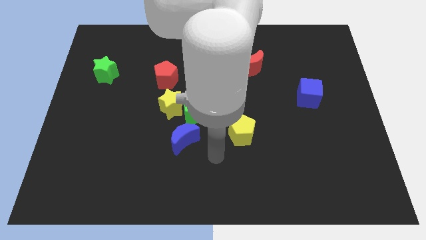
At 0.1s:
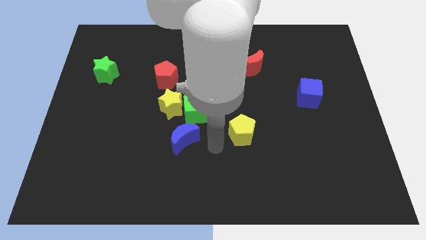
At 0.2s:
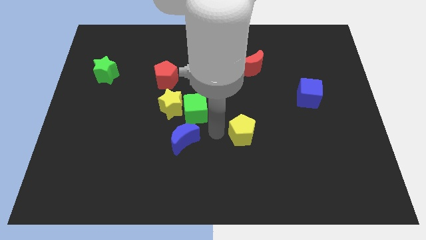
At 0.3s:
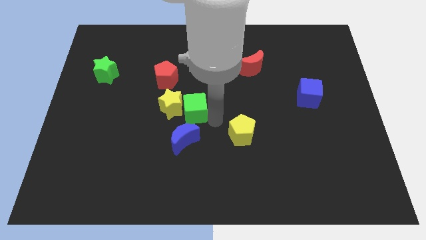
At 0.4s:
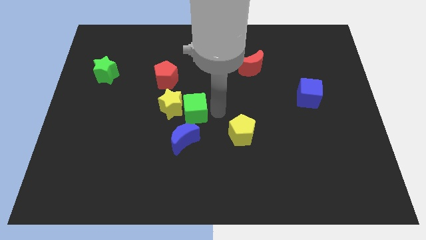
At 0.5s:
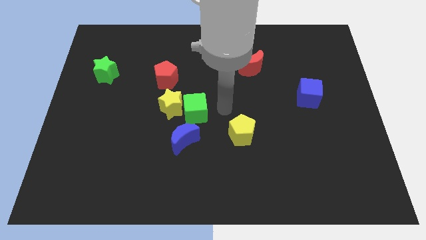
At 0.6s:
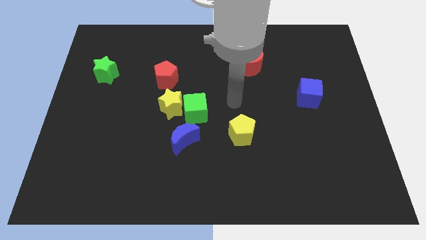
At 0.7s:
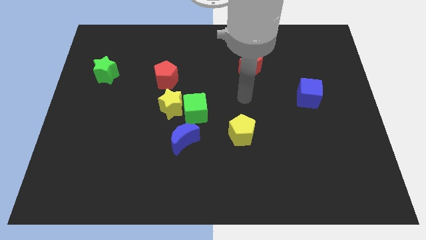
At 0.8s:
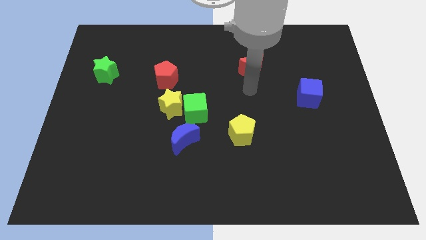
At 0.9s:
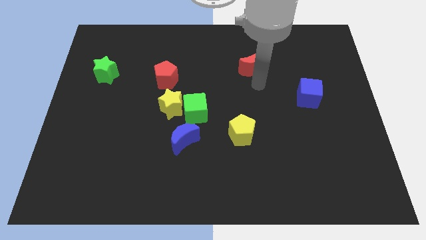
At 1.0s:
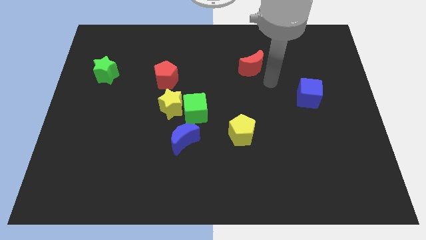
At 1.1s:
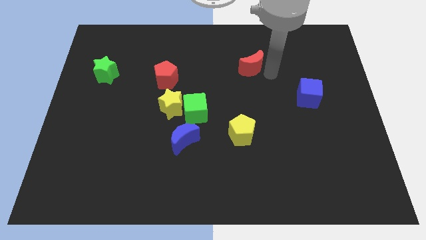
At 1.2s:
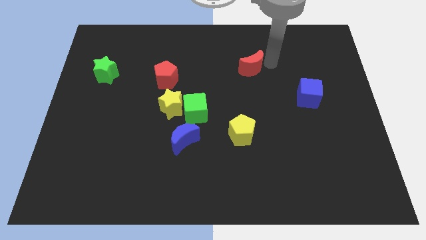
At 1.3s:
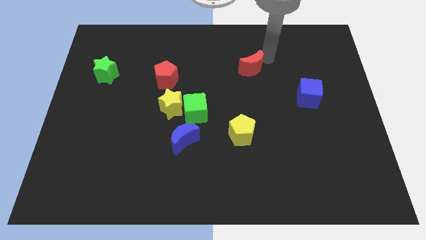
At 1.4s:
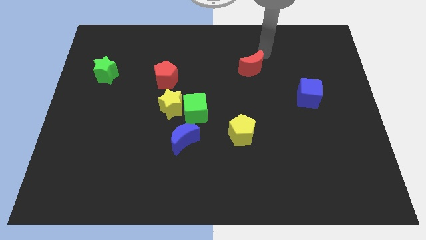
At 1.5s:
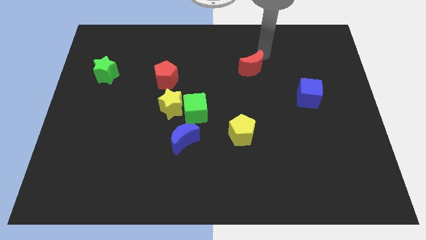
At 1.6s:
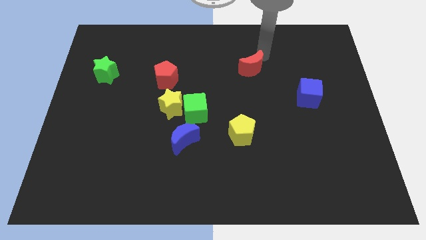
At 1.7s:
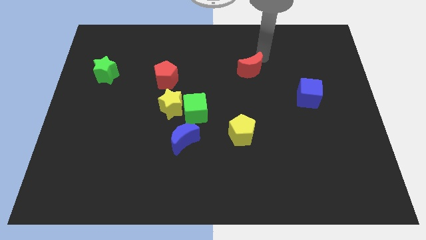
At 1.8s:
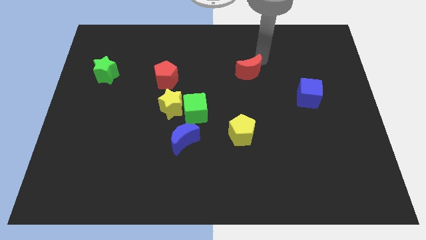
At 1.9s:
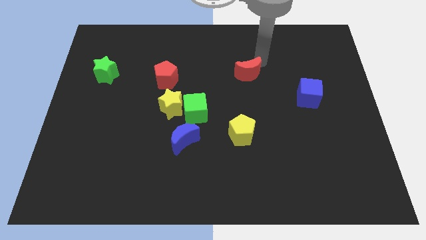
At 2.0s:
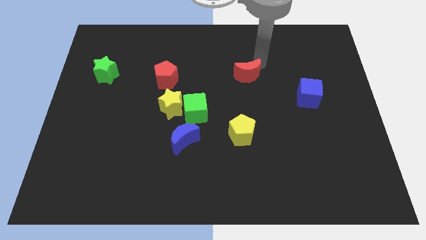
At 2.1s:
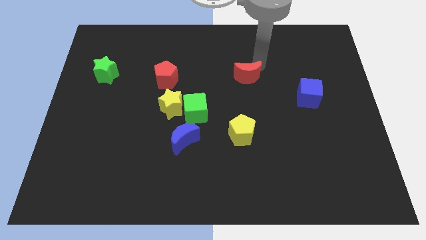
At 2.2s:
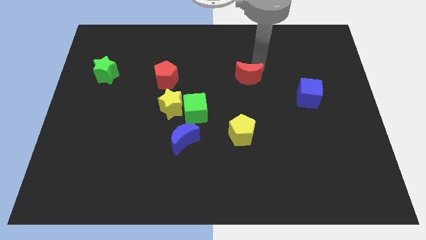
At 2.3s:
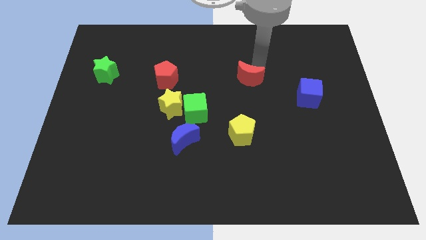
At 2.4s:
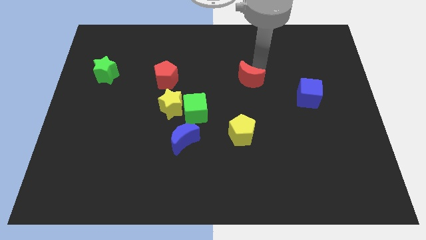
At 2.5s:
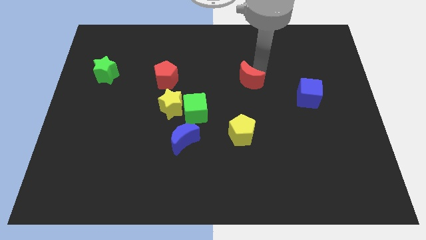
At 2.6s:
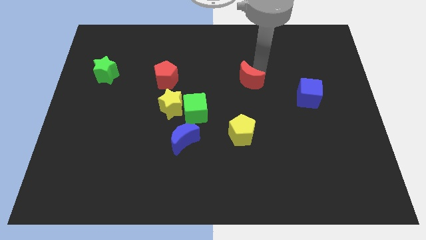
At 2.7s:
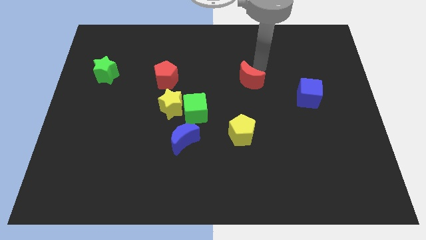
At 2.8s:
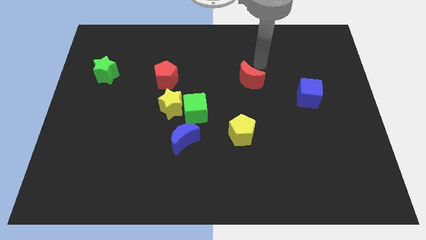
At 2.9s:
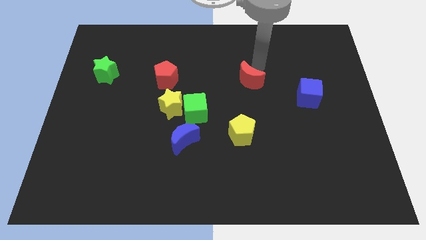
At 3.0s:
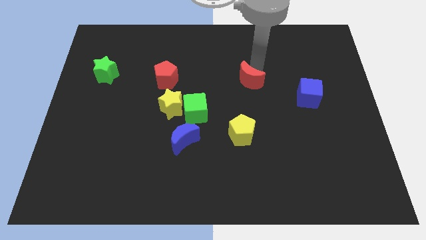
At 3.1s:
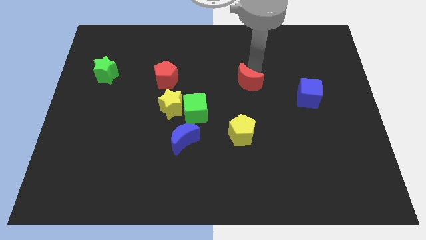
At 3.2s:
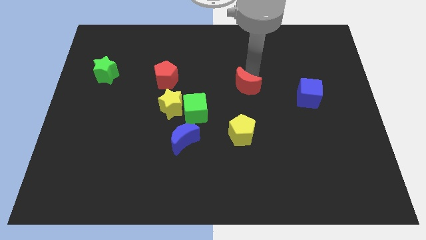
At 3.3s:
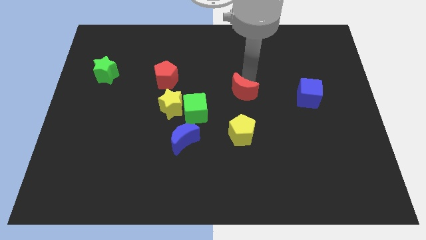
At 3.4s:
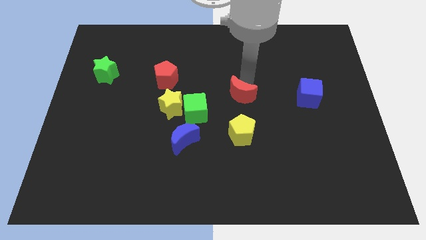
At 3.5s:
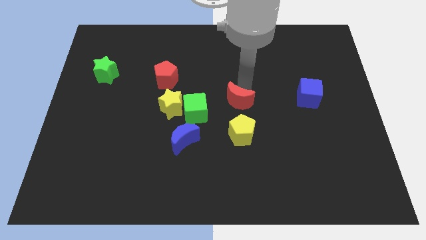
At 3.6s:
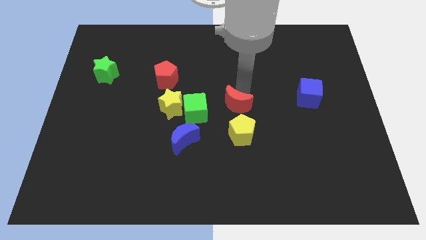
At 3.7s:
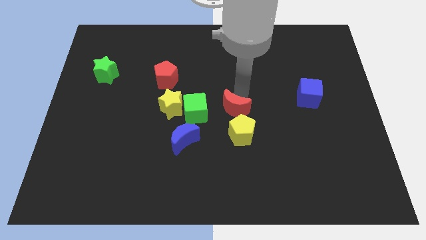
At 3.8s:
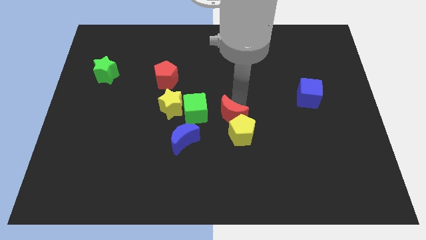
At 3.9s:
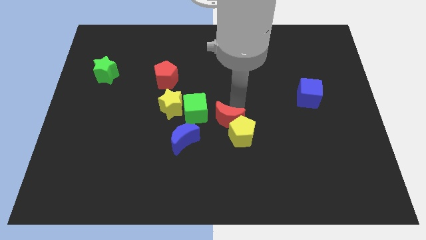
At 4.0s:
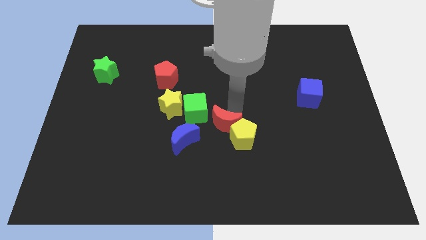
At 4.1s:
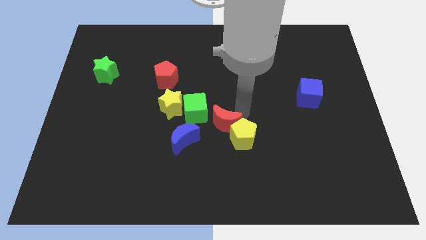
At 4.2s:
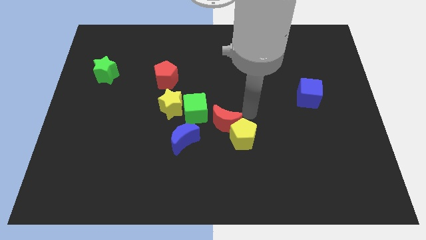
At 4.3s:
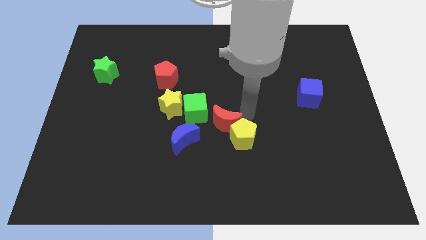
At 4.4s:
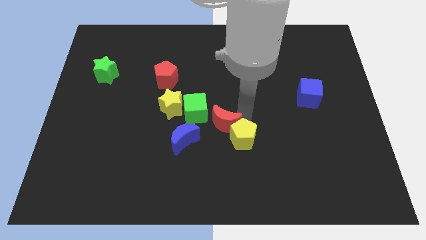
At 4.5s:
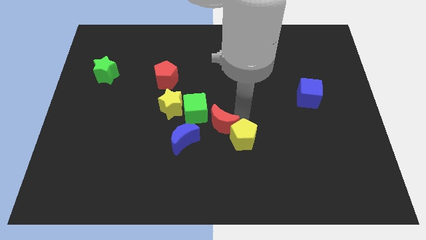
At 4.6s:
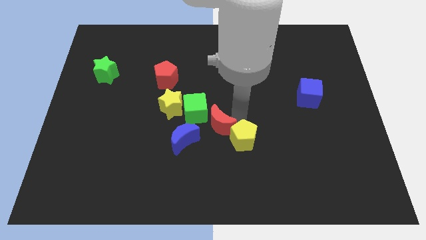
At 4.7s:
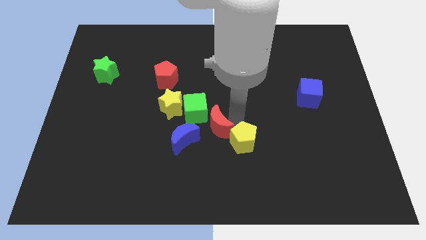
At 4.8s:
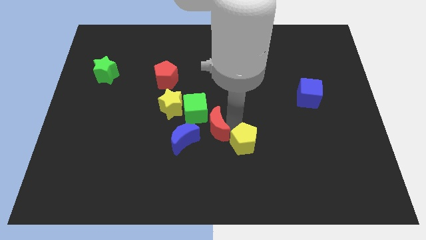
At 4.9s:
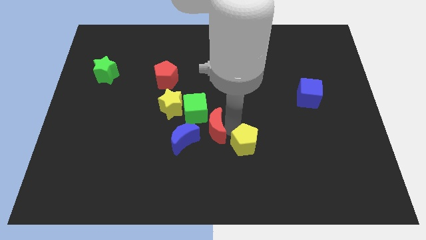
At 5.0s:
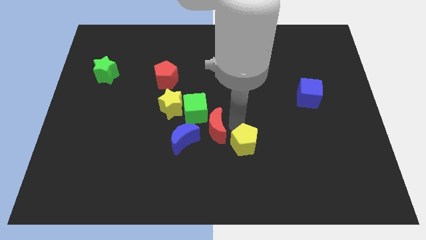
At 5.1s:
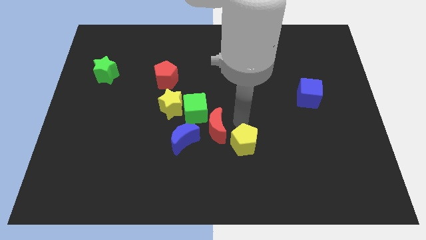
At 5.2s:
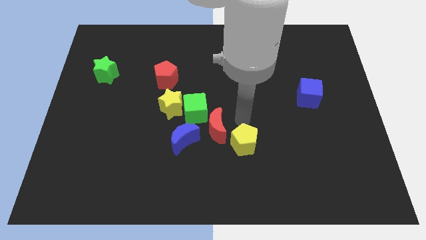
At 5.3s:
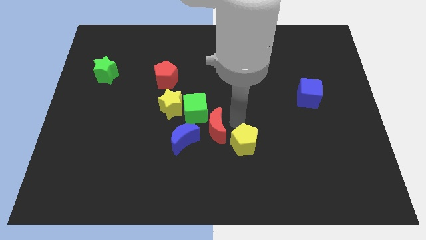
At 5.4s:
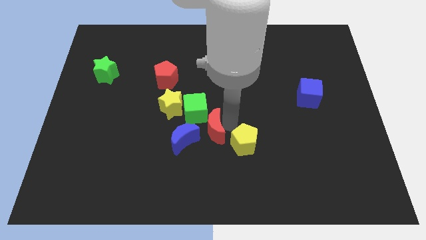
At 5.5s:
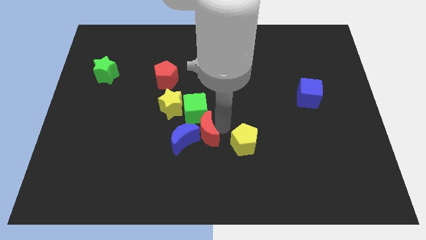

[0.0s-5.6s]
move the red moon close to the blue moon

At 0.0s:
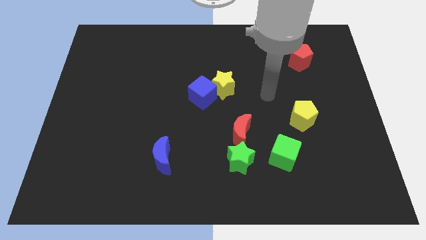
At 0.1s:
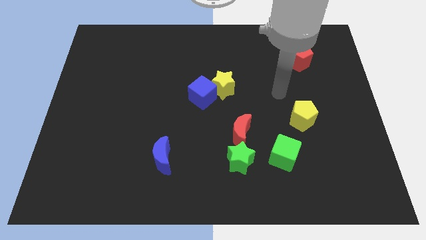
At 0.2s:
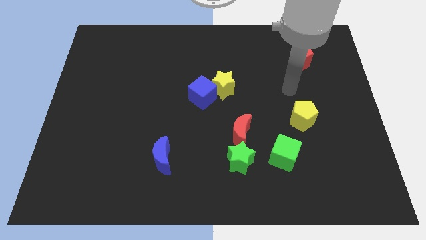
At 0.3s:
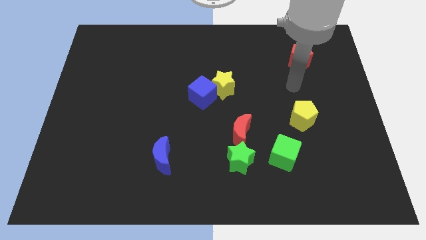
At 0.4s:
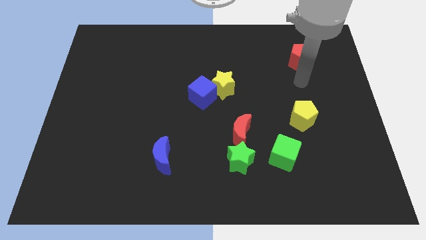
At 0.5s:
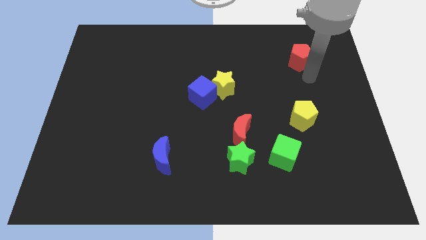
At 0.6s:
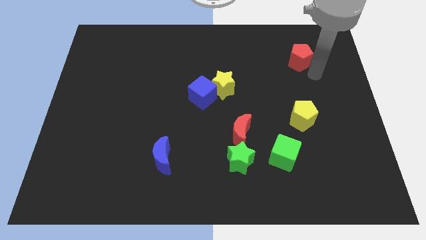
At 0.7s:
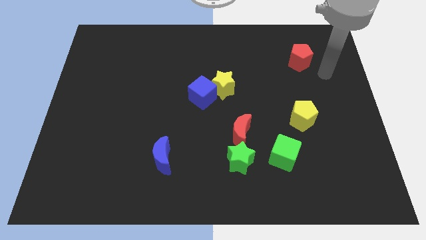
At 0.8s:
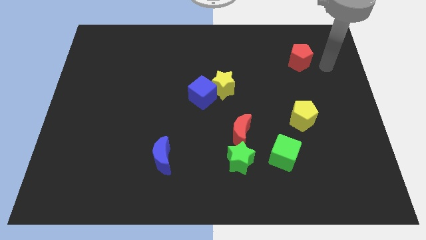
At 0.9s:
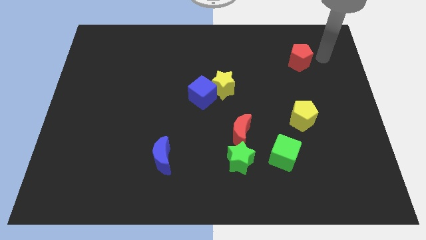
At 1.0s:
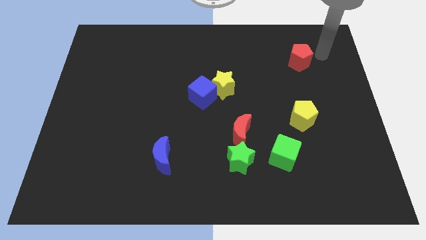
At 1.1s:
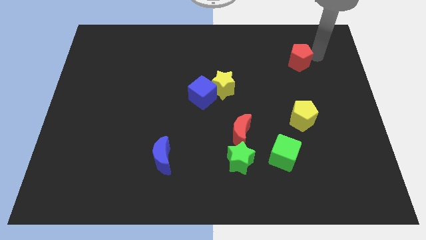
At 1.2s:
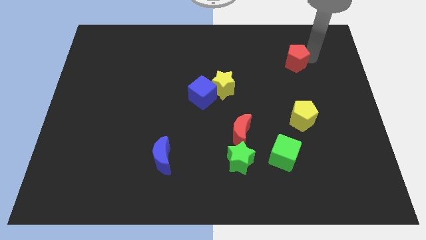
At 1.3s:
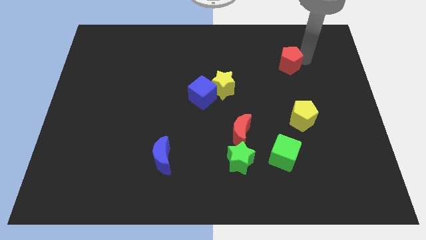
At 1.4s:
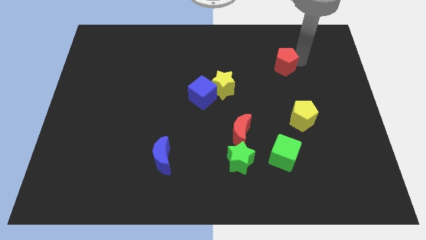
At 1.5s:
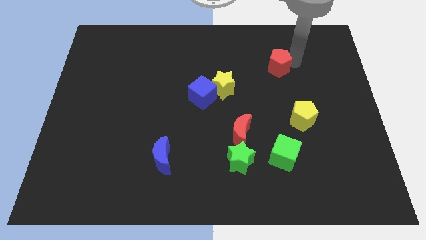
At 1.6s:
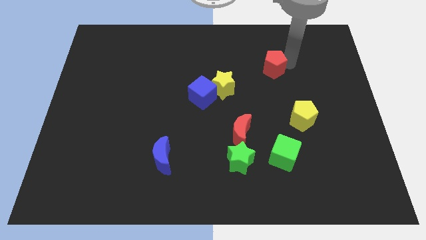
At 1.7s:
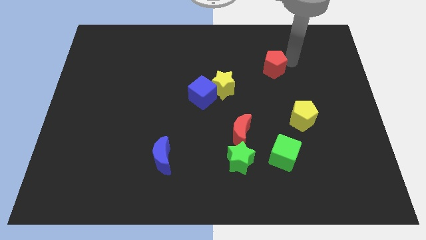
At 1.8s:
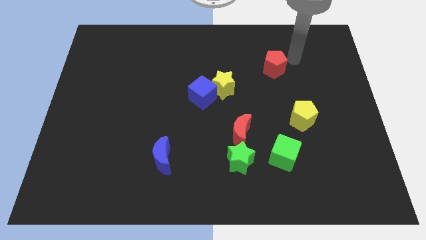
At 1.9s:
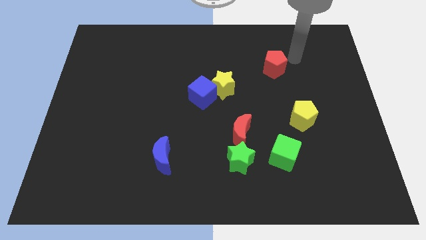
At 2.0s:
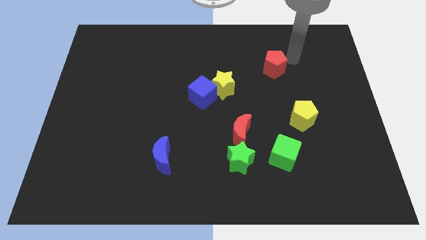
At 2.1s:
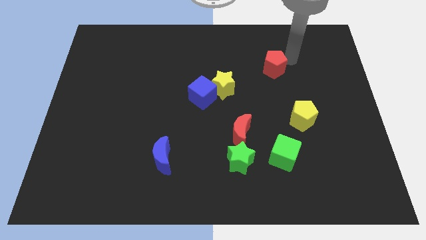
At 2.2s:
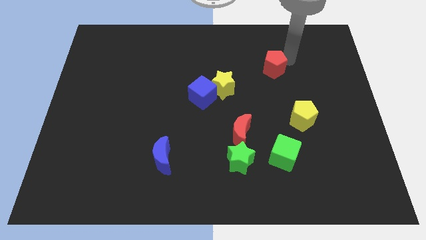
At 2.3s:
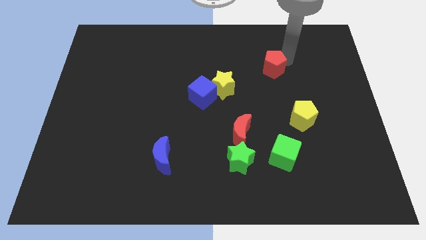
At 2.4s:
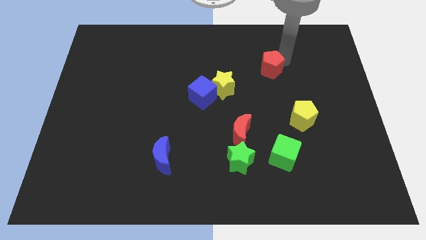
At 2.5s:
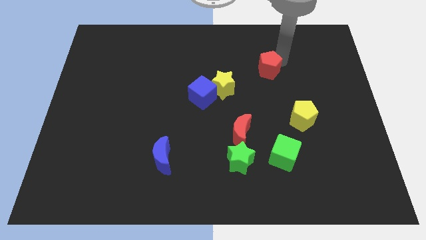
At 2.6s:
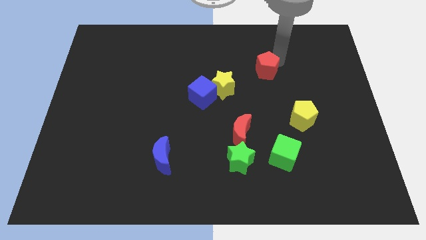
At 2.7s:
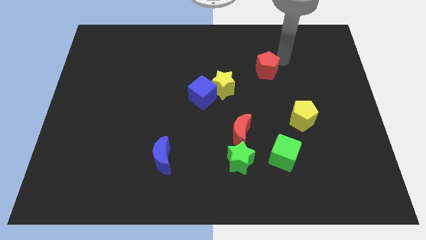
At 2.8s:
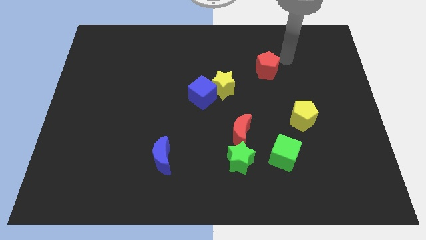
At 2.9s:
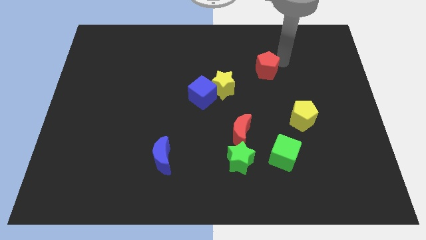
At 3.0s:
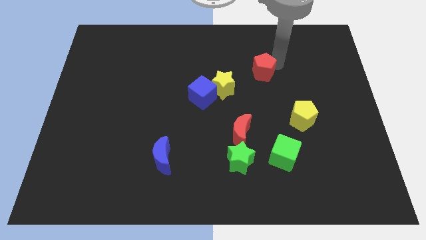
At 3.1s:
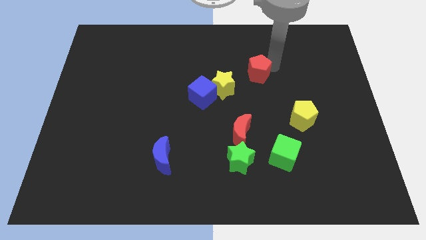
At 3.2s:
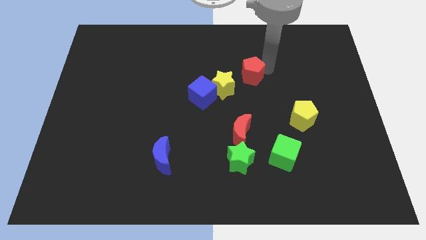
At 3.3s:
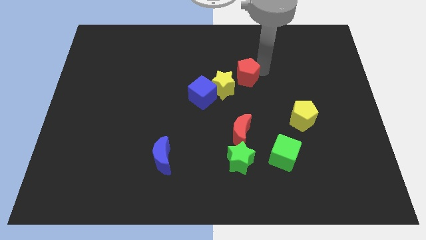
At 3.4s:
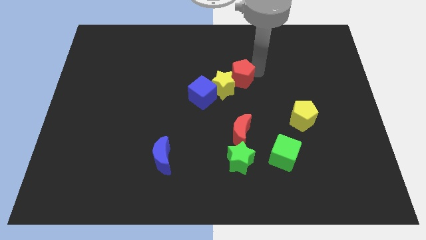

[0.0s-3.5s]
slide the red pentagon towards the yellow star
